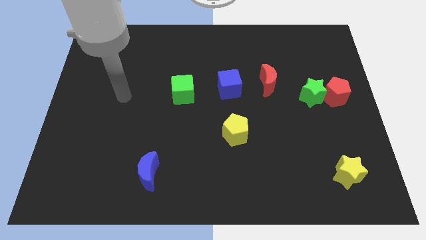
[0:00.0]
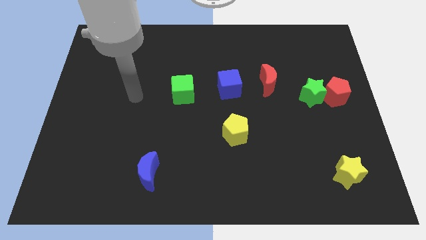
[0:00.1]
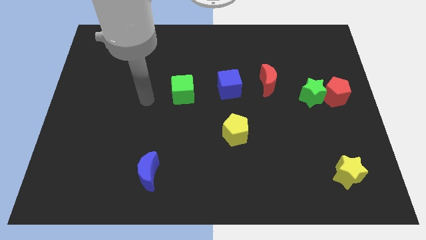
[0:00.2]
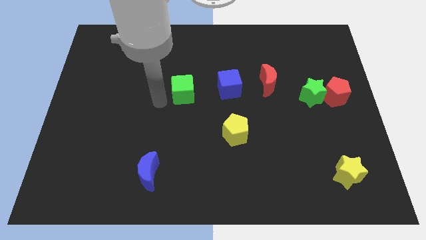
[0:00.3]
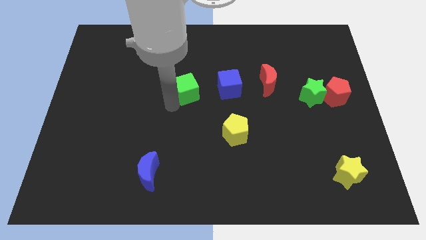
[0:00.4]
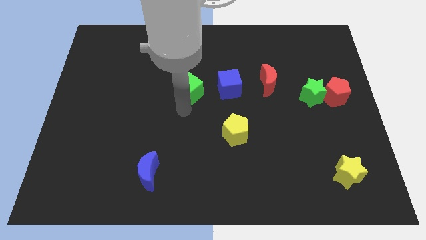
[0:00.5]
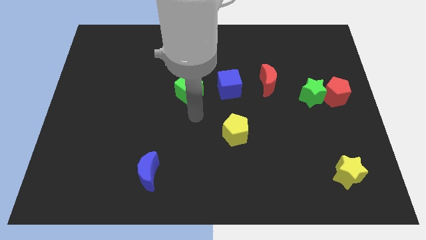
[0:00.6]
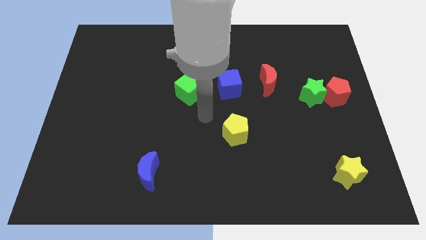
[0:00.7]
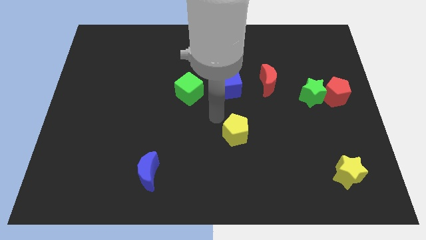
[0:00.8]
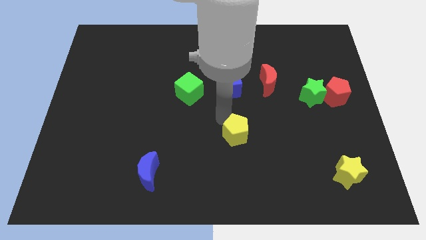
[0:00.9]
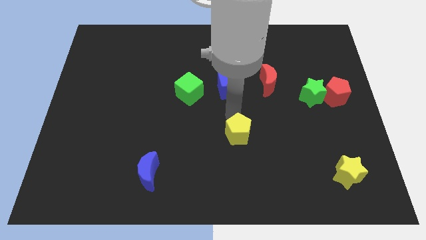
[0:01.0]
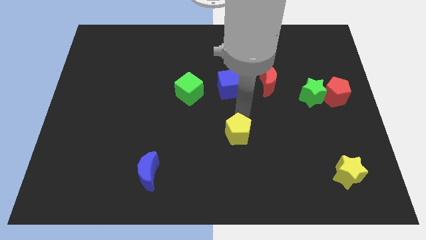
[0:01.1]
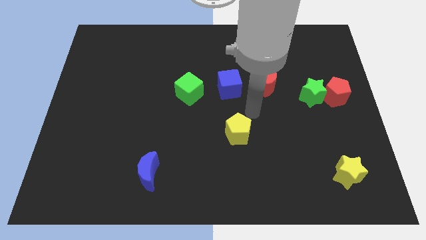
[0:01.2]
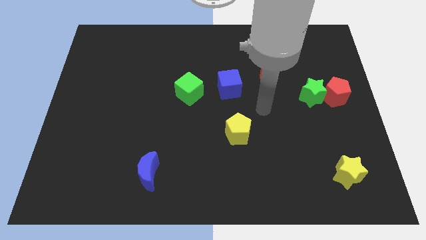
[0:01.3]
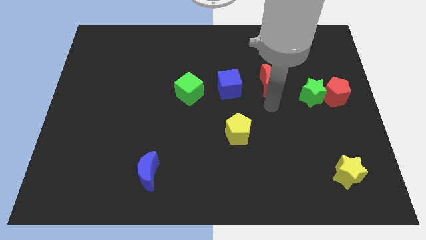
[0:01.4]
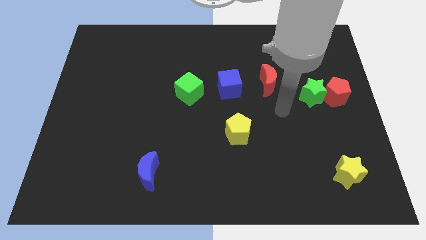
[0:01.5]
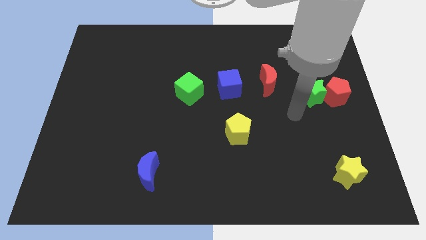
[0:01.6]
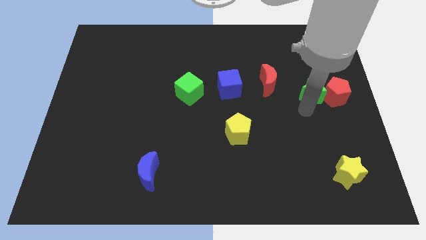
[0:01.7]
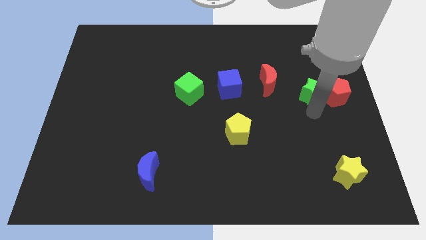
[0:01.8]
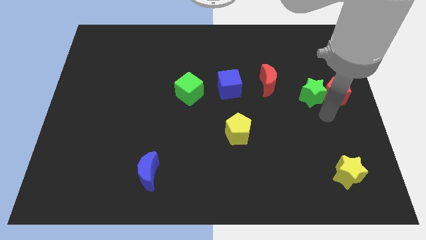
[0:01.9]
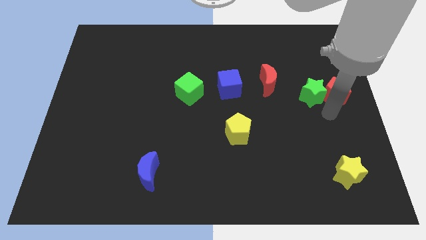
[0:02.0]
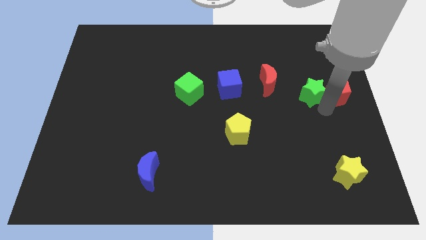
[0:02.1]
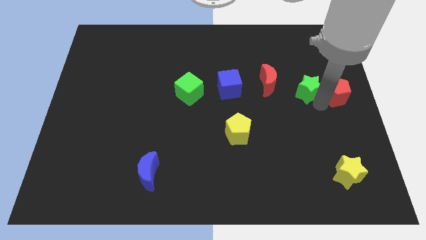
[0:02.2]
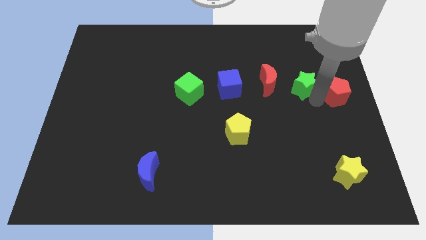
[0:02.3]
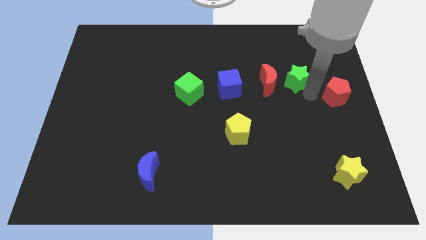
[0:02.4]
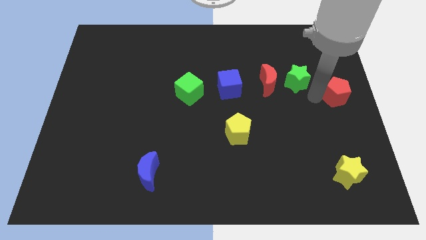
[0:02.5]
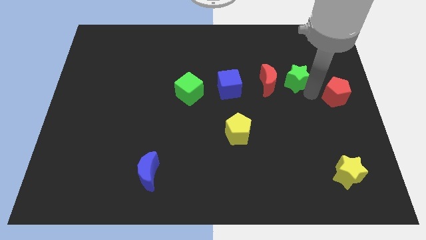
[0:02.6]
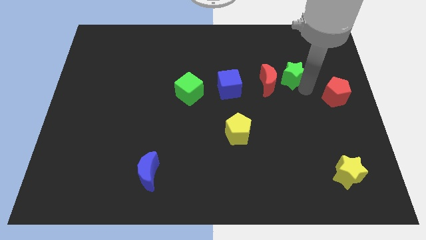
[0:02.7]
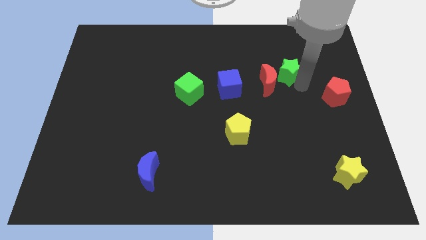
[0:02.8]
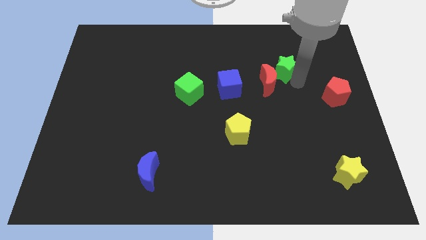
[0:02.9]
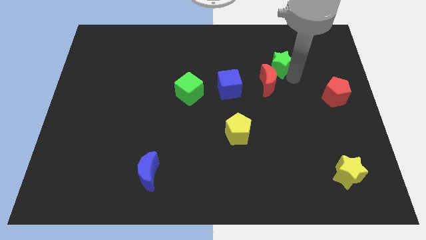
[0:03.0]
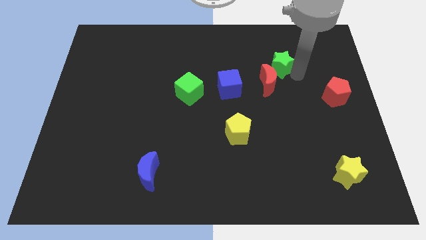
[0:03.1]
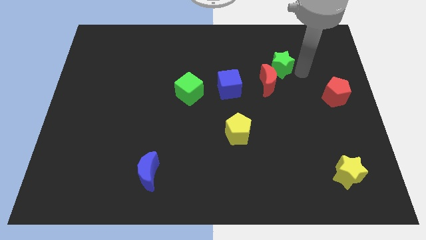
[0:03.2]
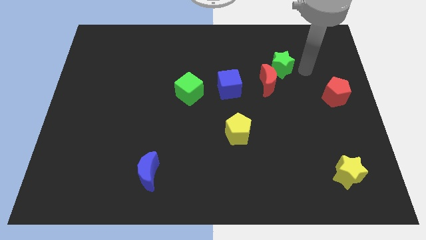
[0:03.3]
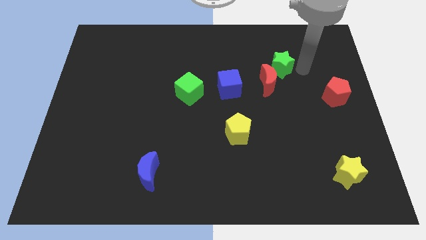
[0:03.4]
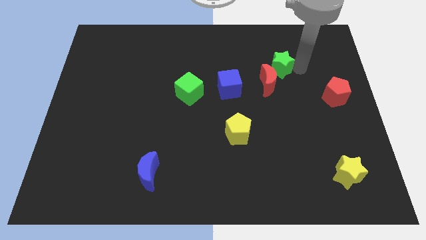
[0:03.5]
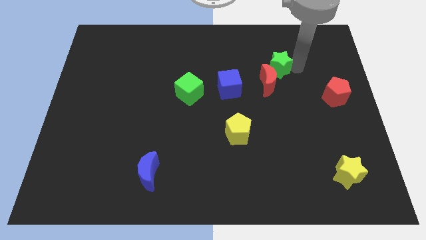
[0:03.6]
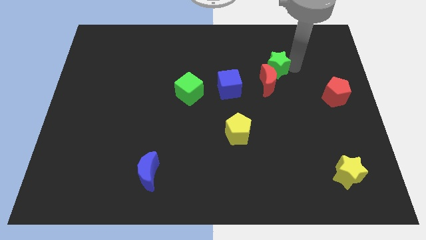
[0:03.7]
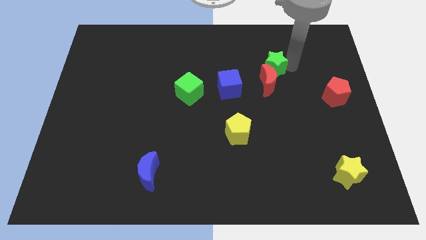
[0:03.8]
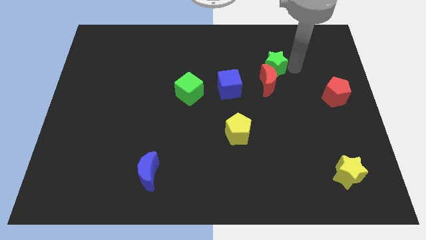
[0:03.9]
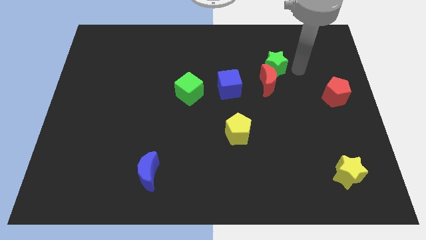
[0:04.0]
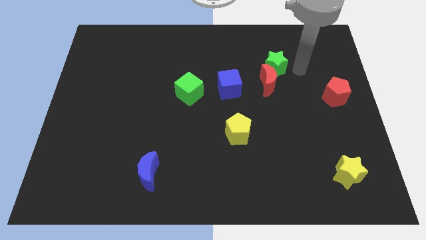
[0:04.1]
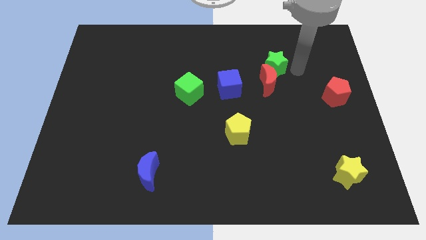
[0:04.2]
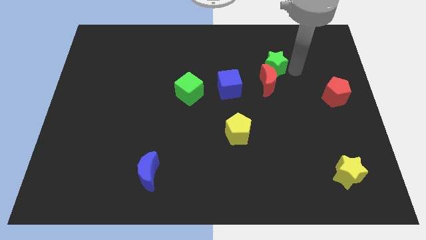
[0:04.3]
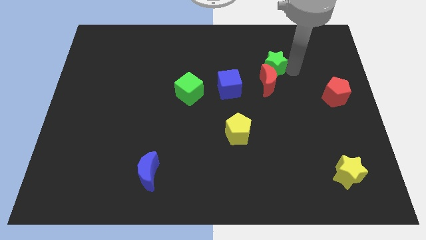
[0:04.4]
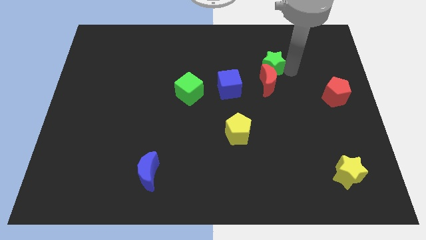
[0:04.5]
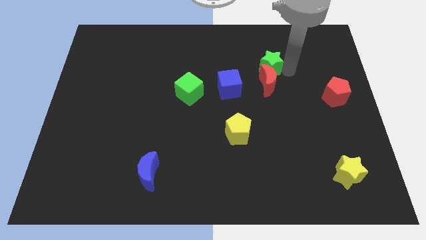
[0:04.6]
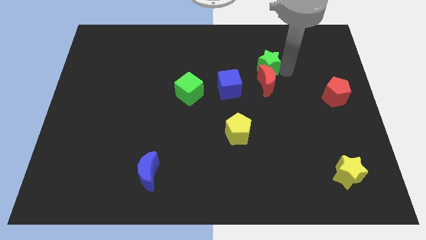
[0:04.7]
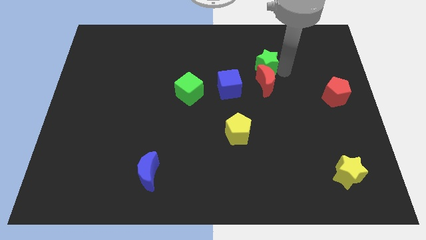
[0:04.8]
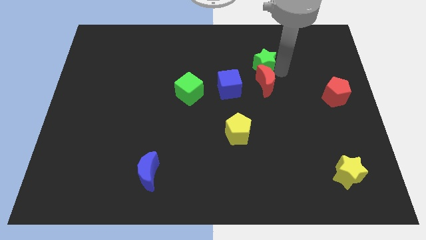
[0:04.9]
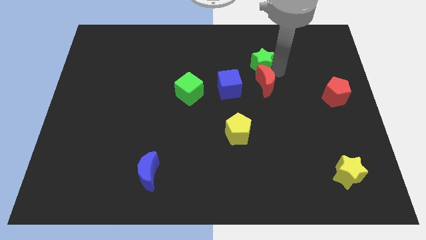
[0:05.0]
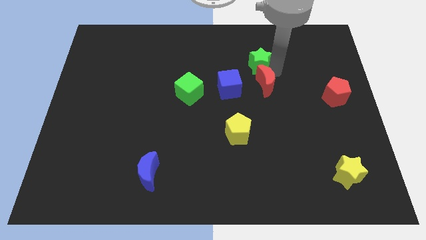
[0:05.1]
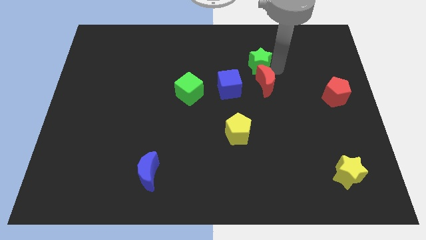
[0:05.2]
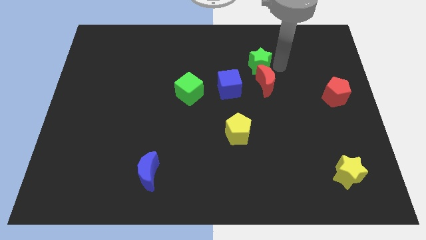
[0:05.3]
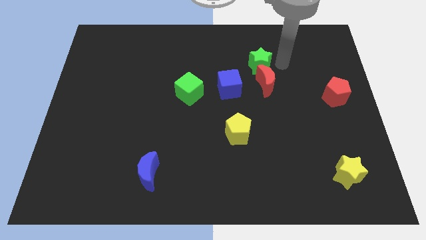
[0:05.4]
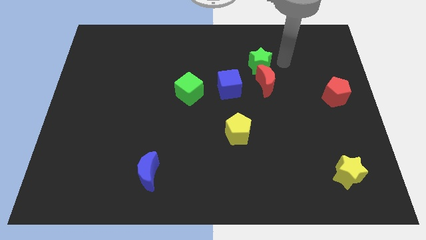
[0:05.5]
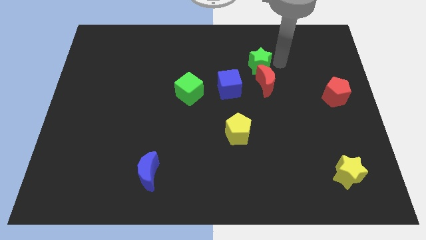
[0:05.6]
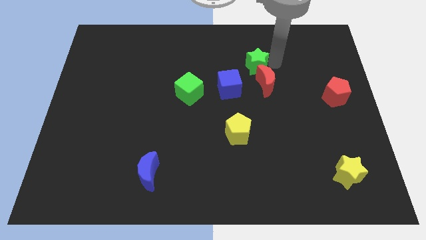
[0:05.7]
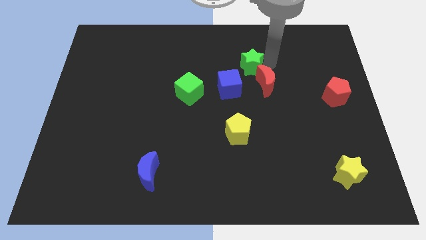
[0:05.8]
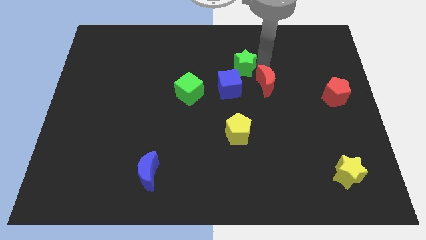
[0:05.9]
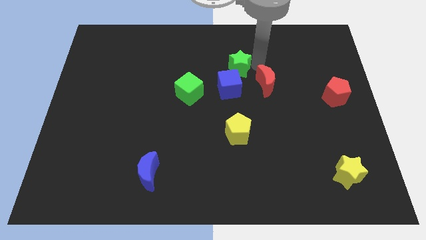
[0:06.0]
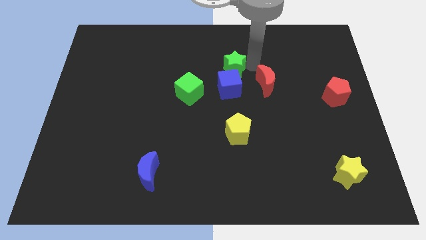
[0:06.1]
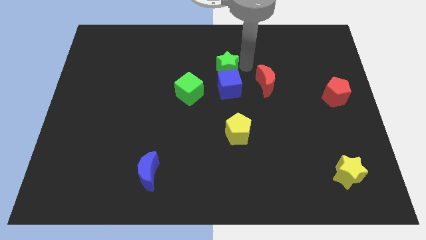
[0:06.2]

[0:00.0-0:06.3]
move the green star to the top right of the green cube

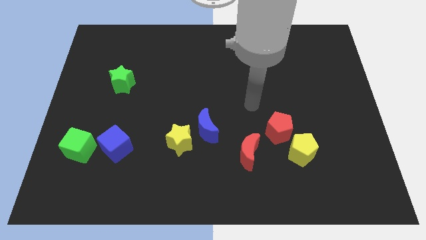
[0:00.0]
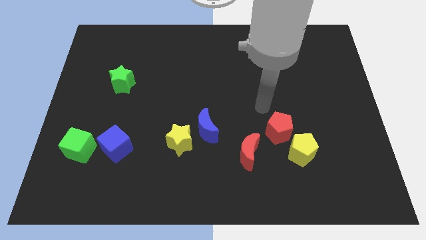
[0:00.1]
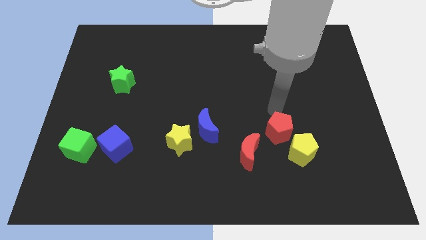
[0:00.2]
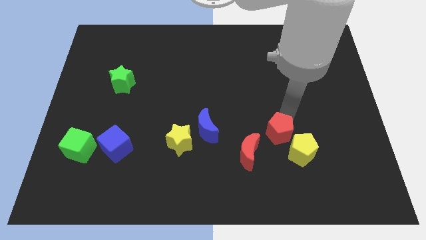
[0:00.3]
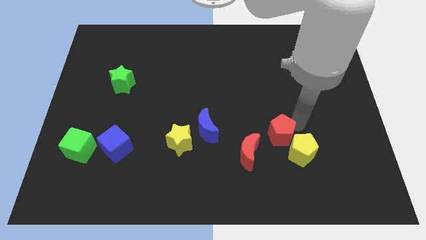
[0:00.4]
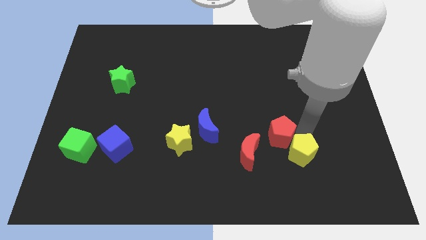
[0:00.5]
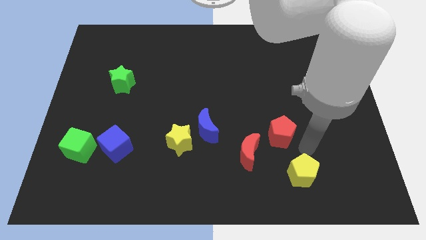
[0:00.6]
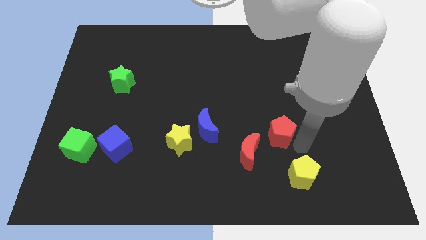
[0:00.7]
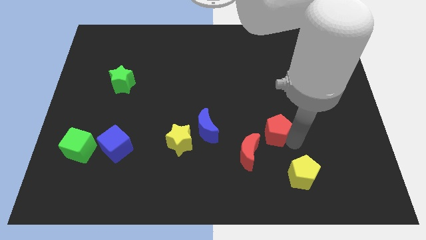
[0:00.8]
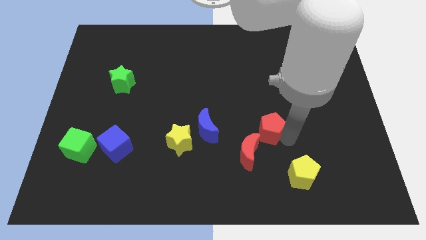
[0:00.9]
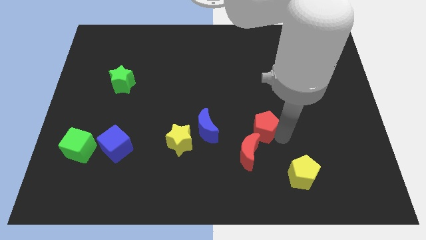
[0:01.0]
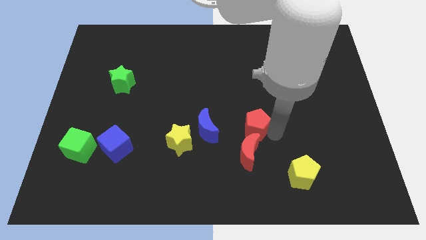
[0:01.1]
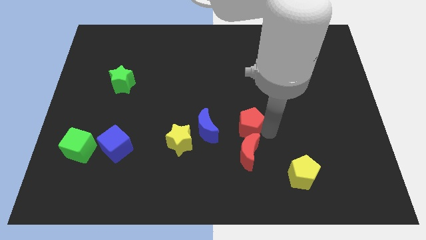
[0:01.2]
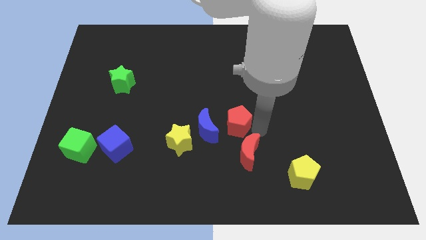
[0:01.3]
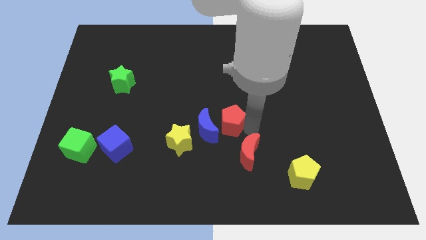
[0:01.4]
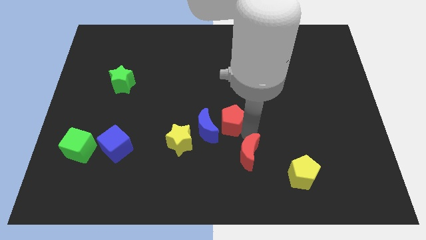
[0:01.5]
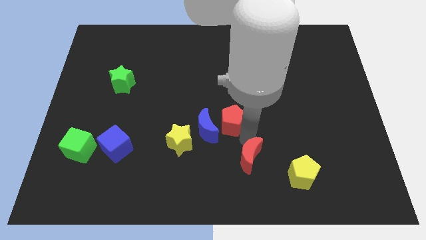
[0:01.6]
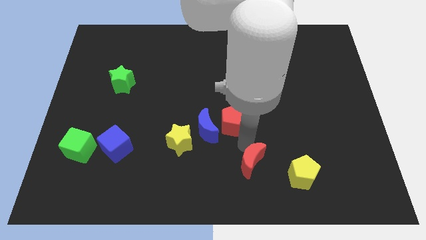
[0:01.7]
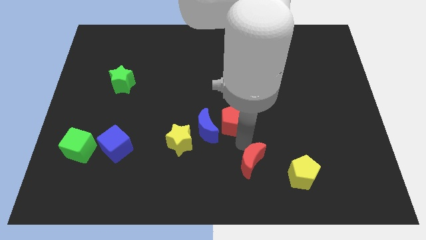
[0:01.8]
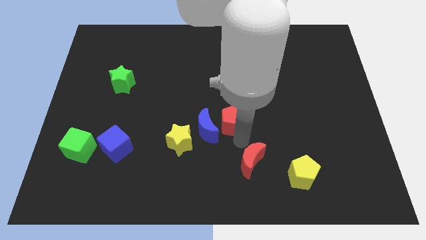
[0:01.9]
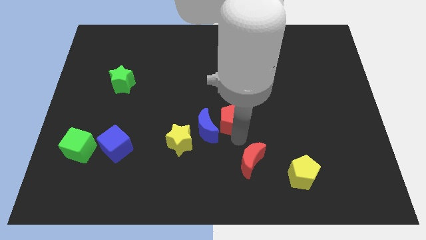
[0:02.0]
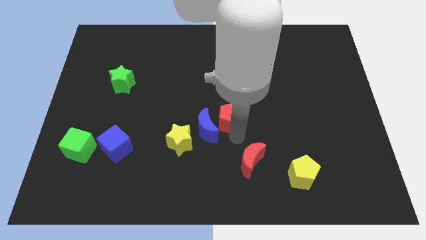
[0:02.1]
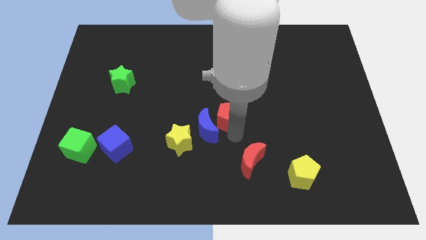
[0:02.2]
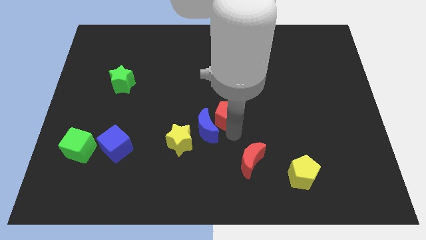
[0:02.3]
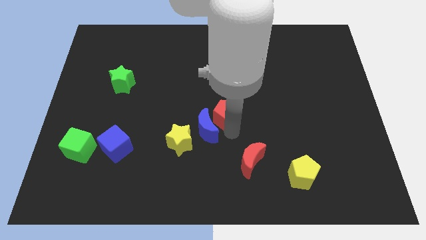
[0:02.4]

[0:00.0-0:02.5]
slide the red pentagon to the top side of the blue moon
